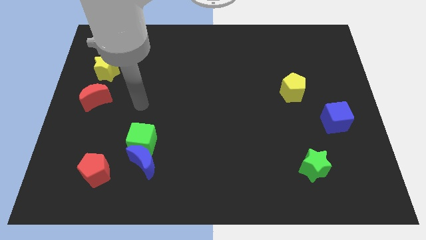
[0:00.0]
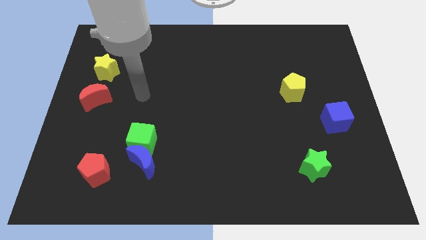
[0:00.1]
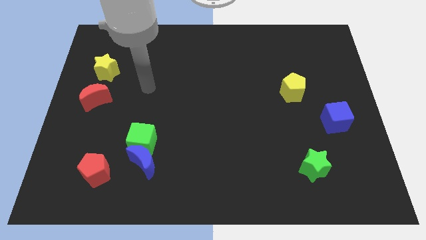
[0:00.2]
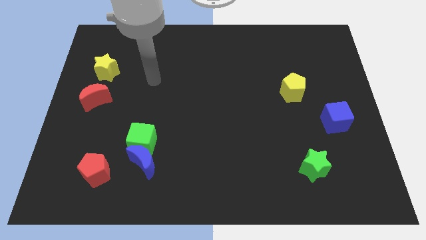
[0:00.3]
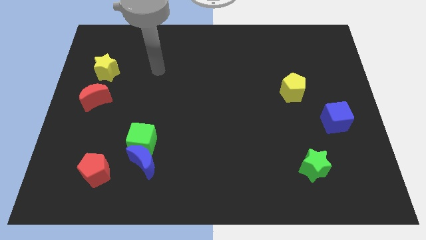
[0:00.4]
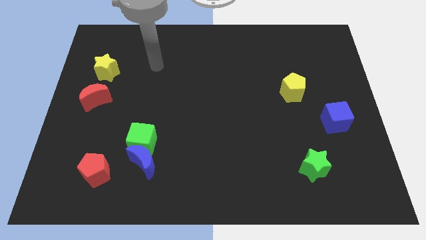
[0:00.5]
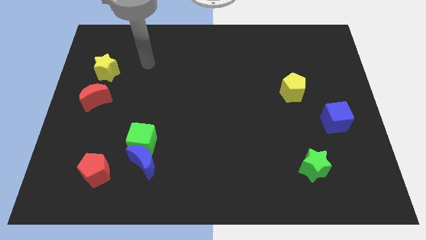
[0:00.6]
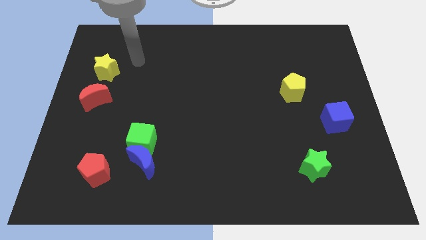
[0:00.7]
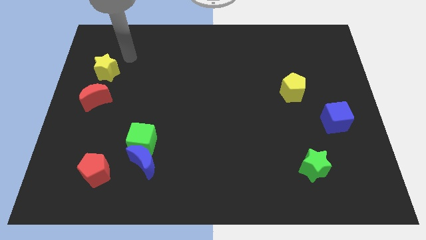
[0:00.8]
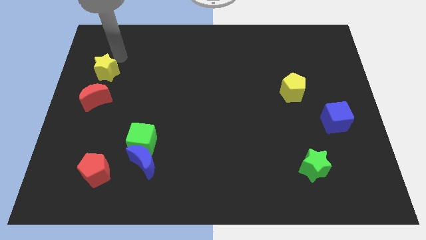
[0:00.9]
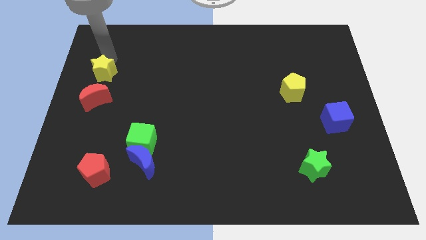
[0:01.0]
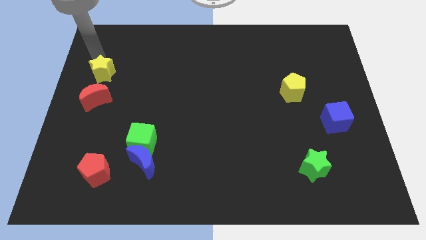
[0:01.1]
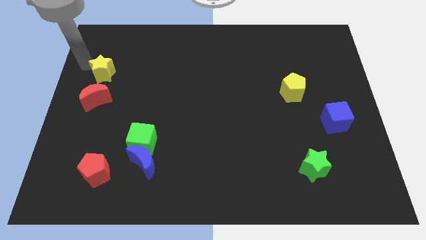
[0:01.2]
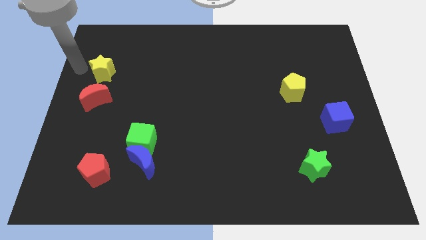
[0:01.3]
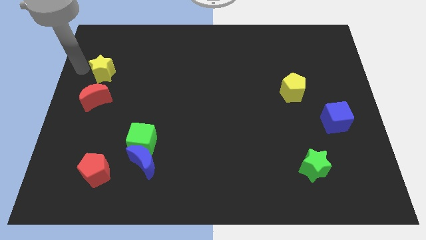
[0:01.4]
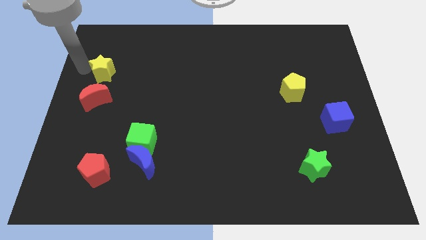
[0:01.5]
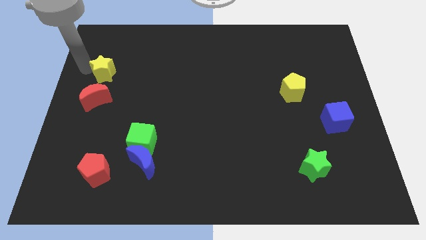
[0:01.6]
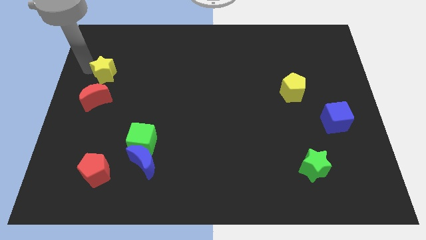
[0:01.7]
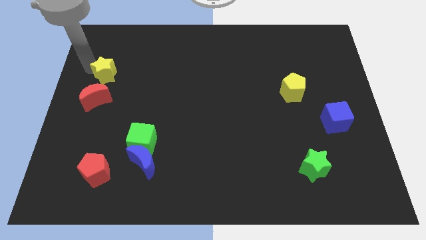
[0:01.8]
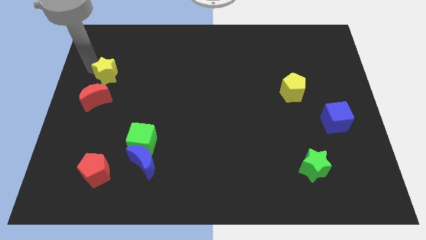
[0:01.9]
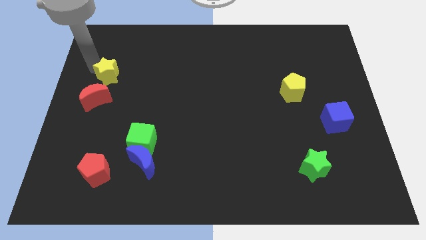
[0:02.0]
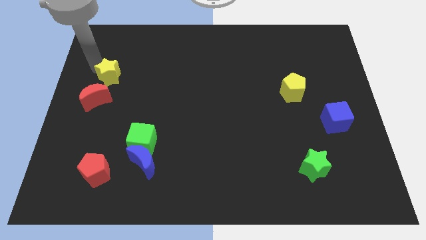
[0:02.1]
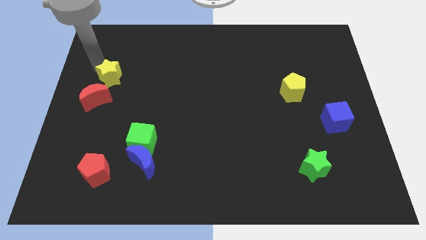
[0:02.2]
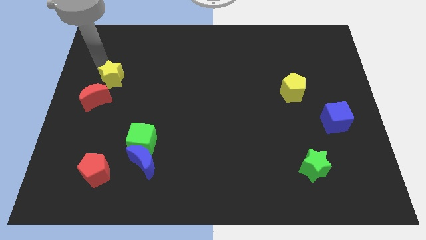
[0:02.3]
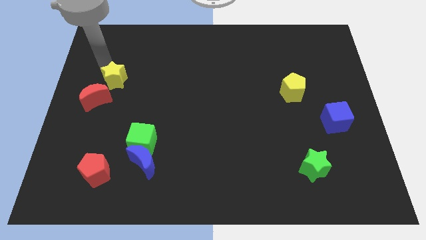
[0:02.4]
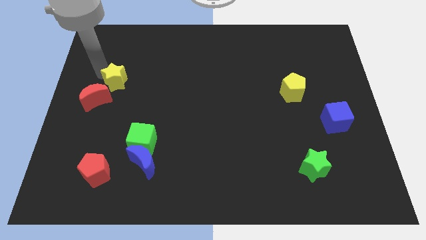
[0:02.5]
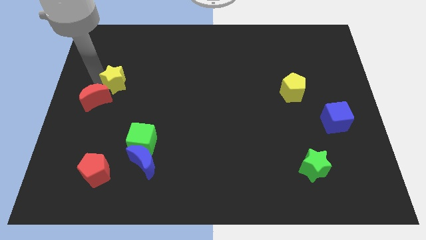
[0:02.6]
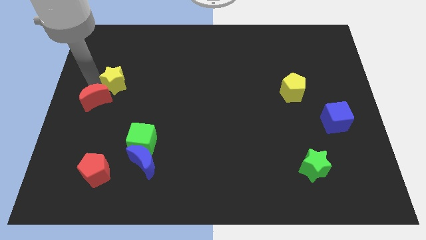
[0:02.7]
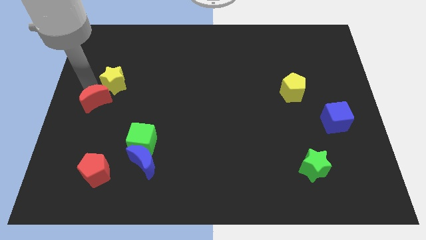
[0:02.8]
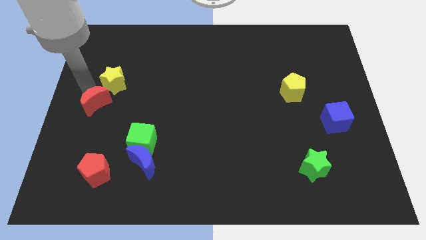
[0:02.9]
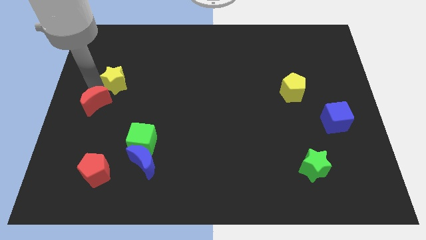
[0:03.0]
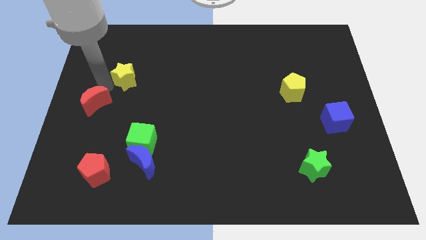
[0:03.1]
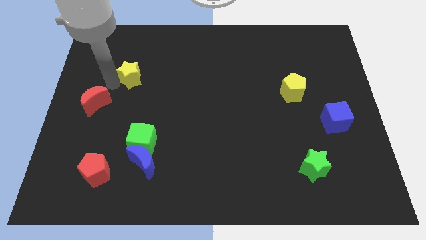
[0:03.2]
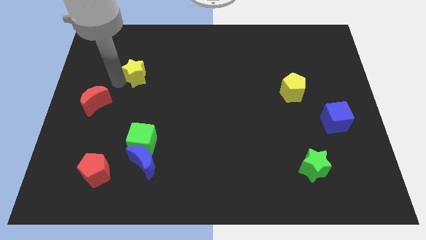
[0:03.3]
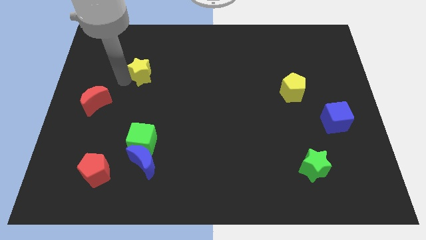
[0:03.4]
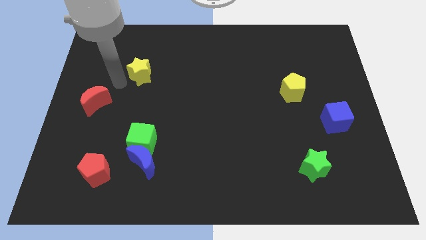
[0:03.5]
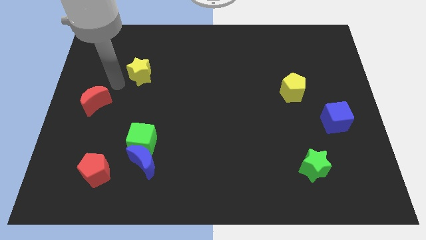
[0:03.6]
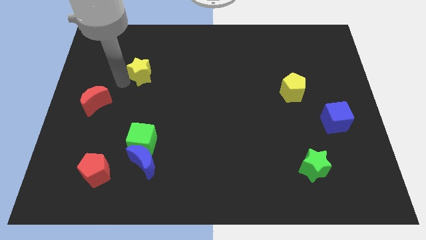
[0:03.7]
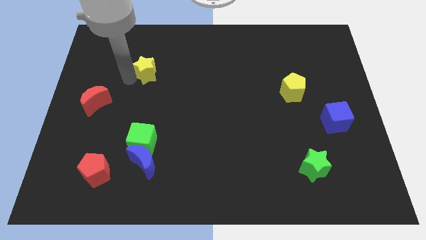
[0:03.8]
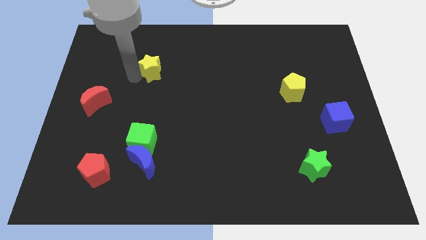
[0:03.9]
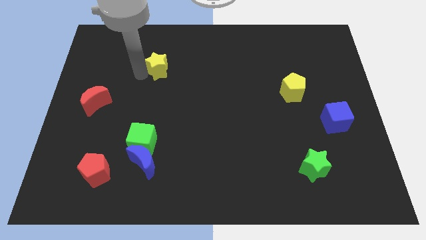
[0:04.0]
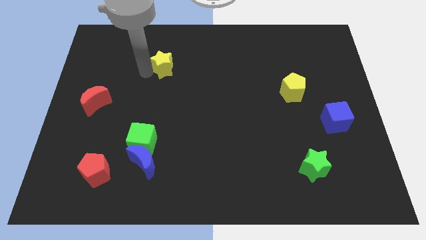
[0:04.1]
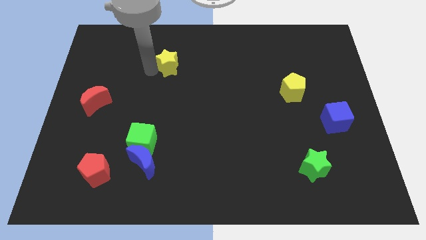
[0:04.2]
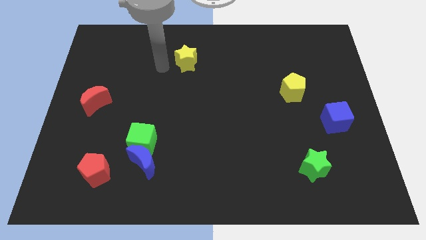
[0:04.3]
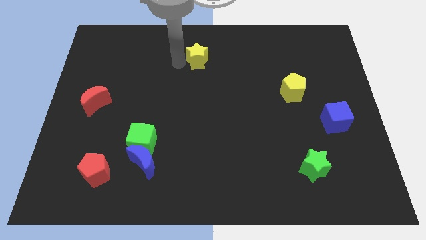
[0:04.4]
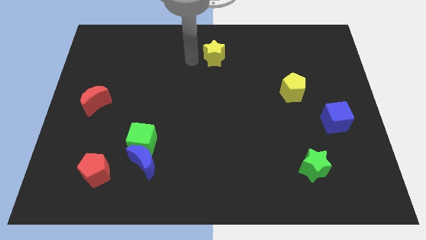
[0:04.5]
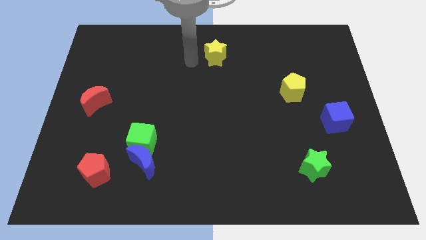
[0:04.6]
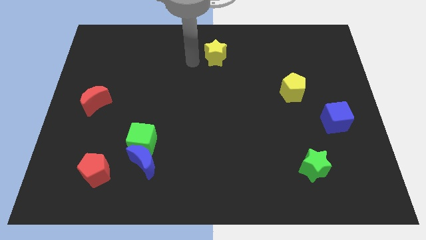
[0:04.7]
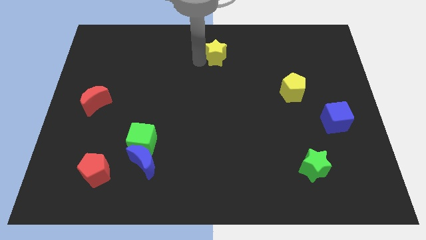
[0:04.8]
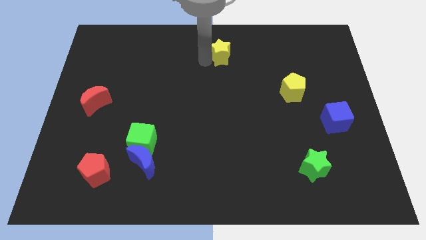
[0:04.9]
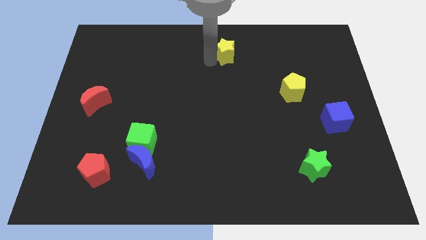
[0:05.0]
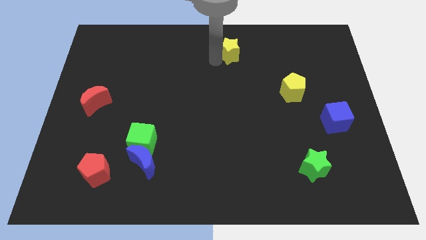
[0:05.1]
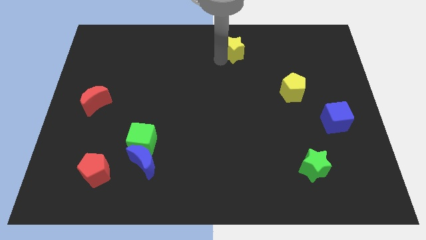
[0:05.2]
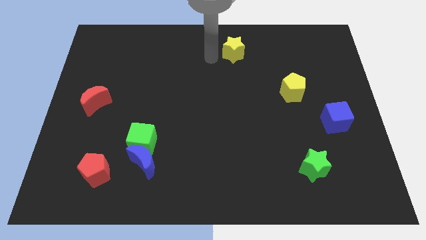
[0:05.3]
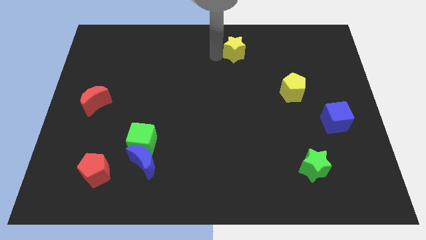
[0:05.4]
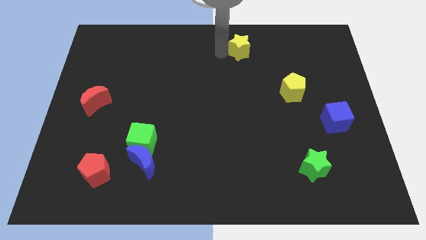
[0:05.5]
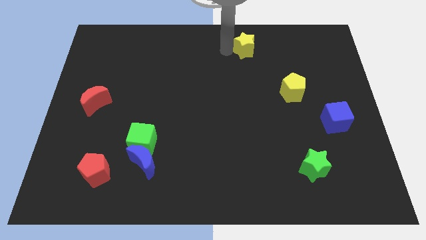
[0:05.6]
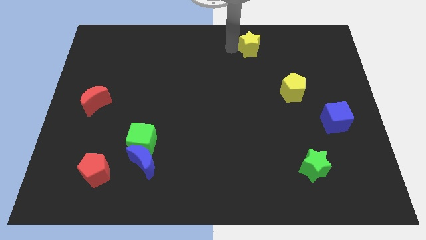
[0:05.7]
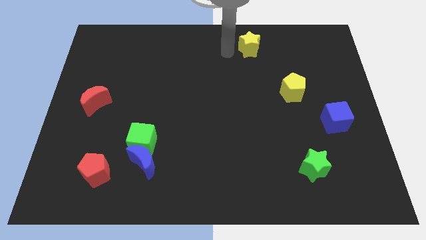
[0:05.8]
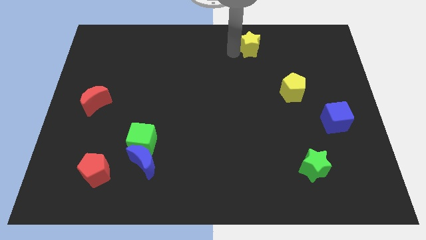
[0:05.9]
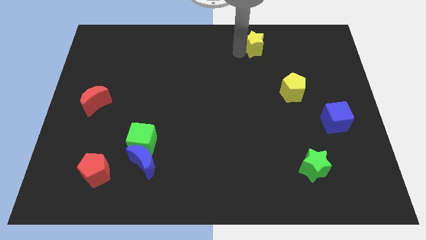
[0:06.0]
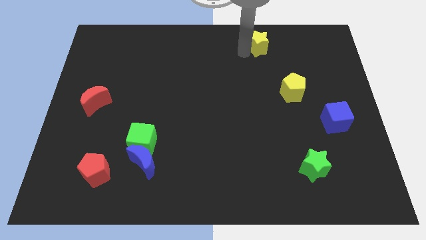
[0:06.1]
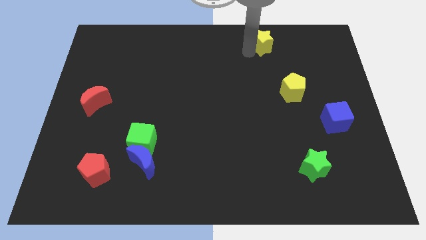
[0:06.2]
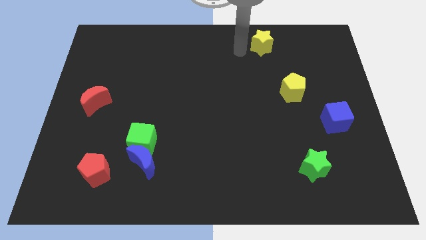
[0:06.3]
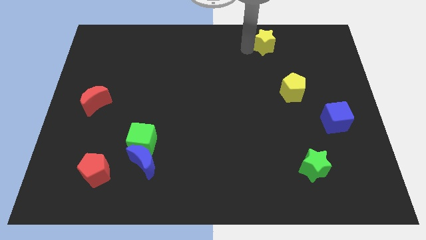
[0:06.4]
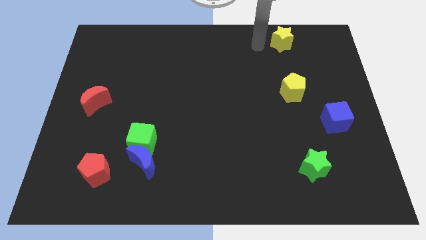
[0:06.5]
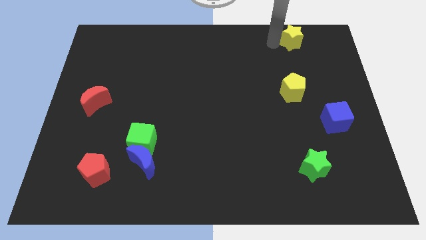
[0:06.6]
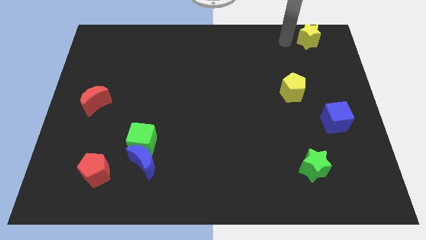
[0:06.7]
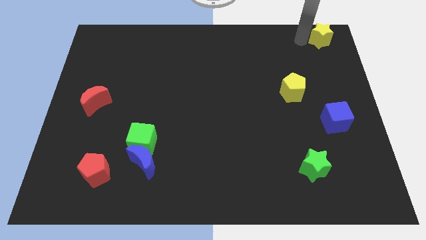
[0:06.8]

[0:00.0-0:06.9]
move the yellow star to the top right corner
